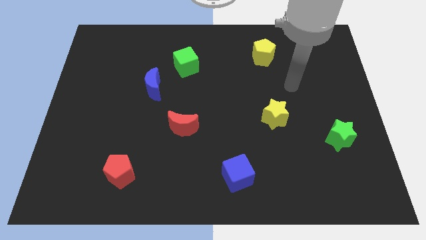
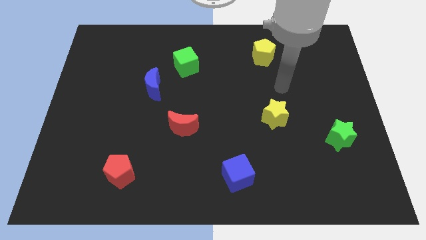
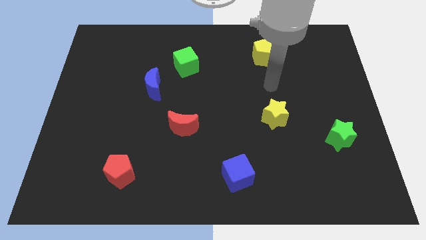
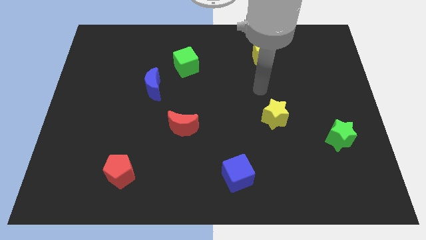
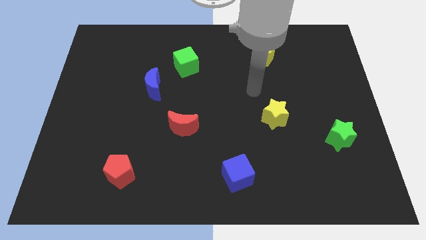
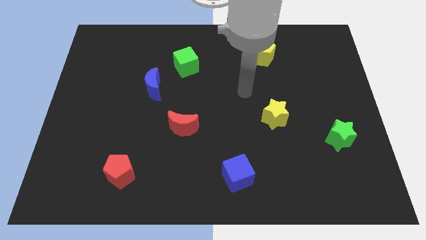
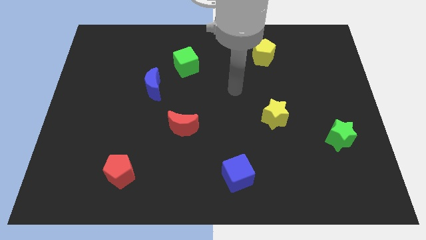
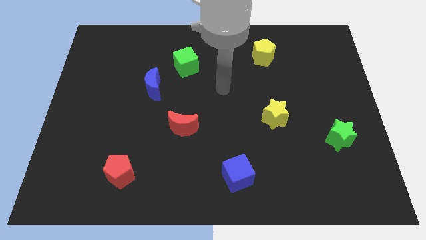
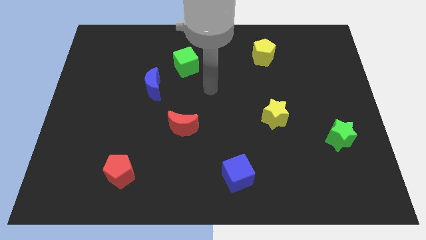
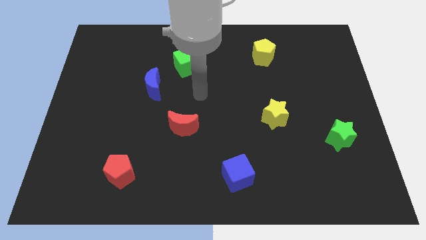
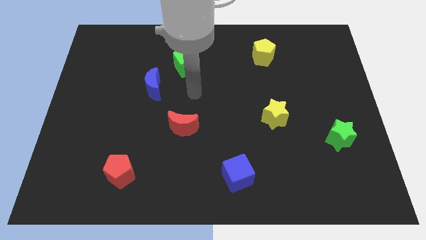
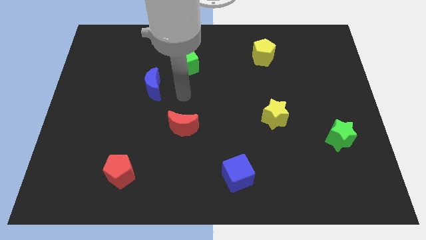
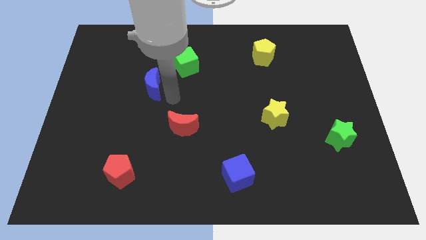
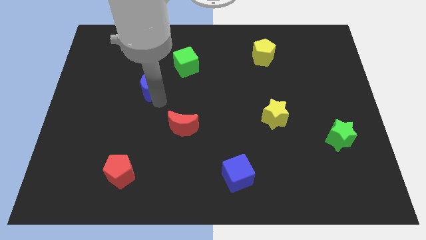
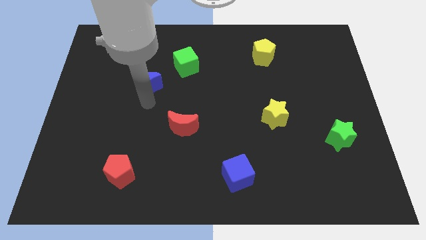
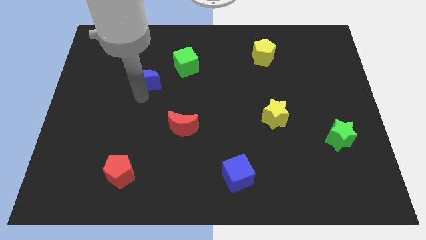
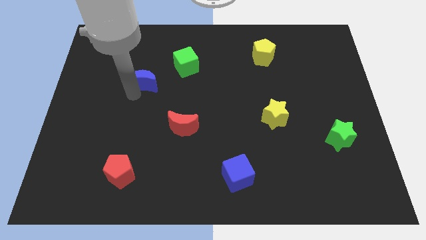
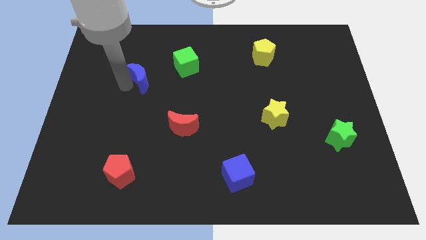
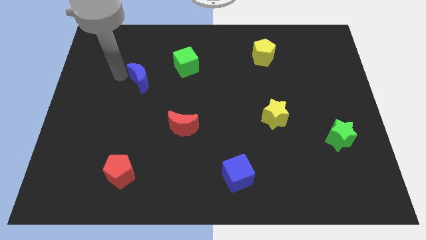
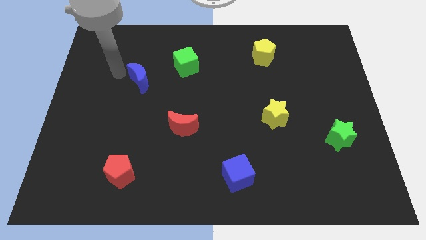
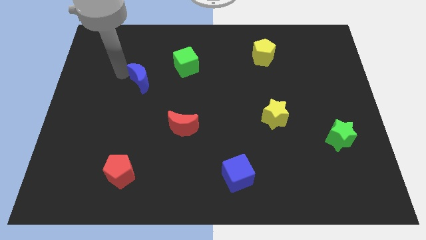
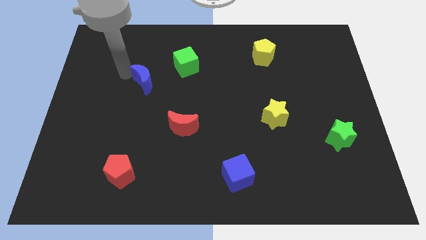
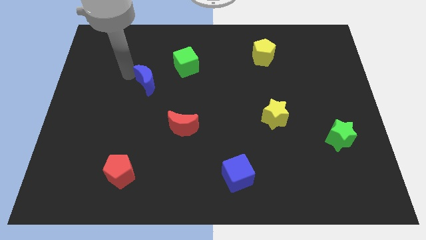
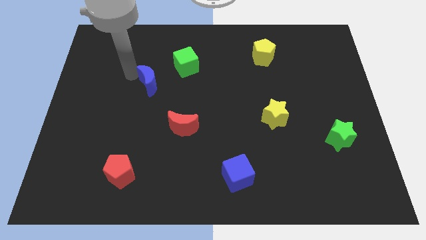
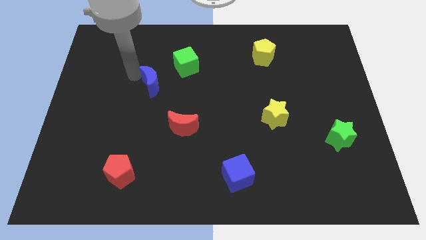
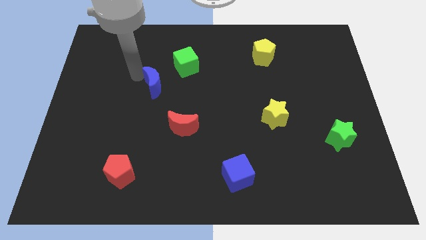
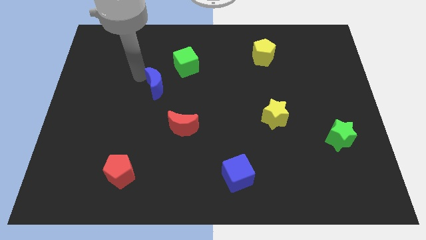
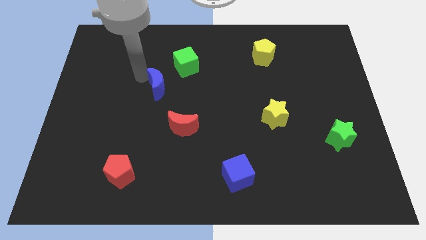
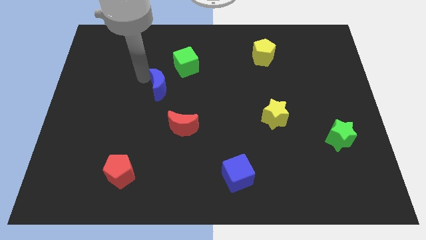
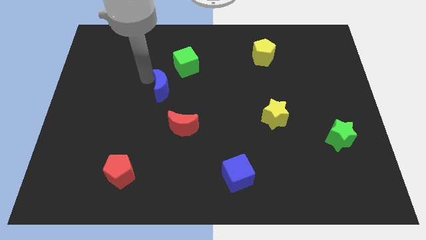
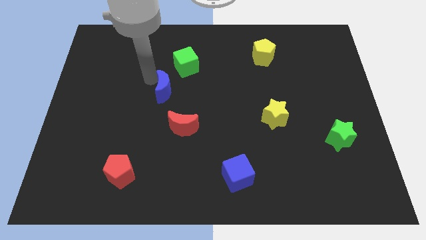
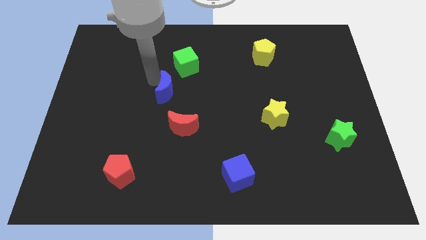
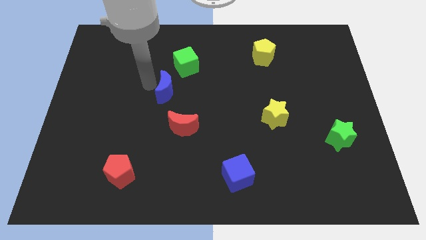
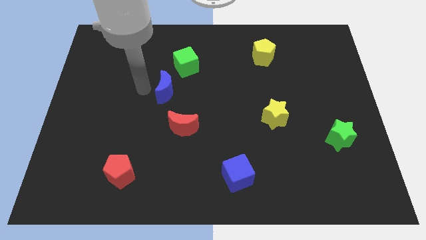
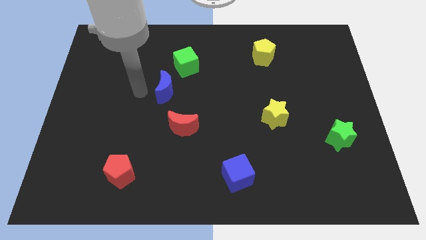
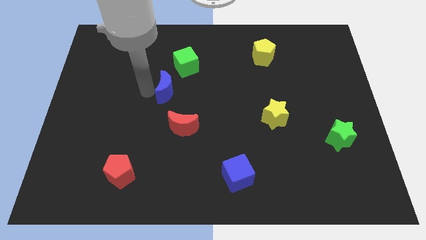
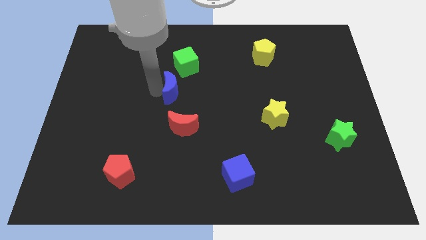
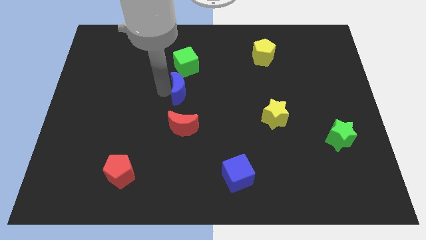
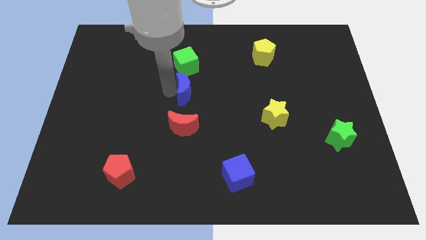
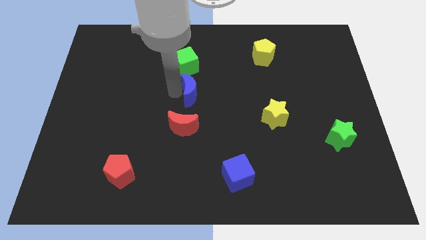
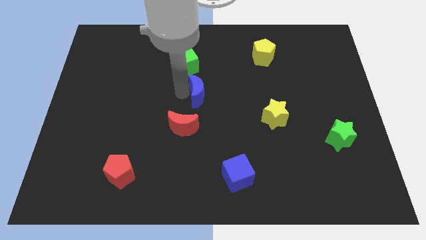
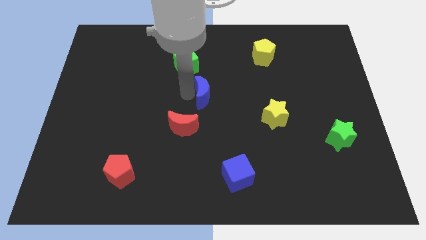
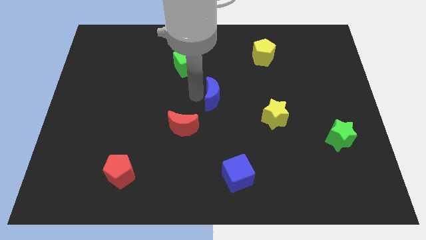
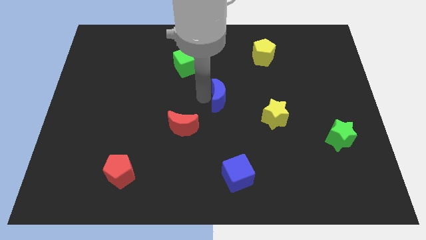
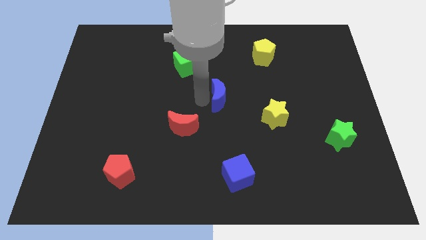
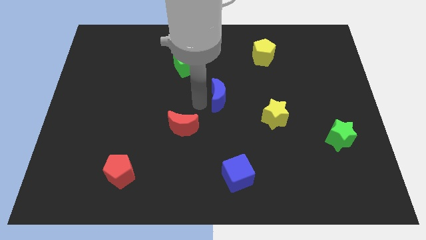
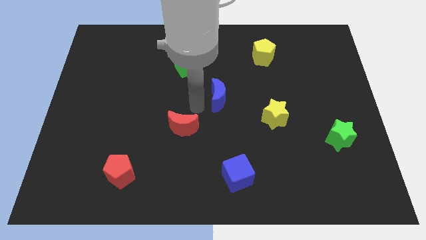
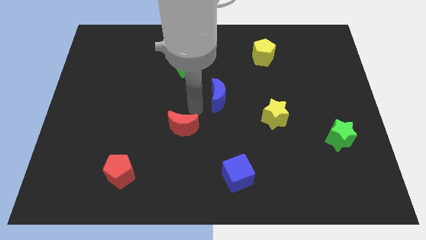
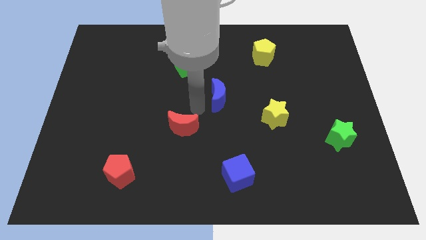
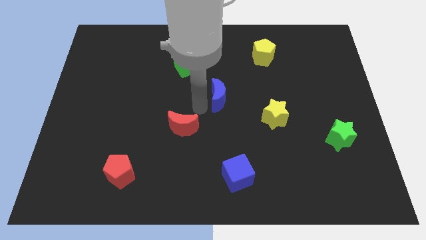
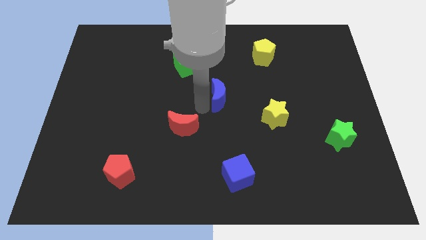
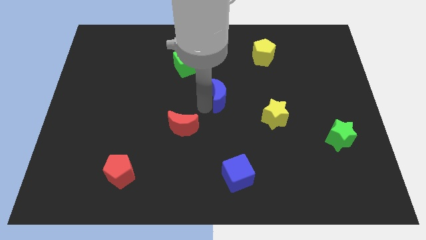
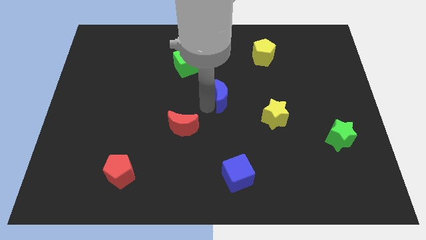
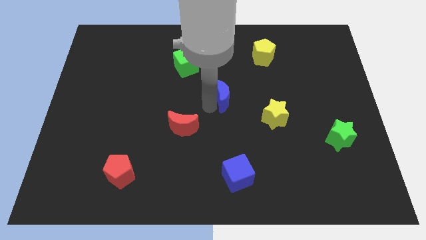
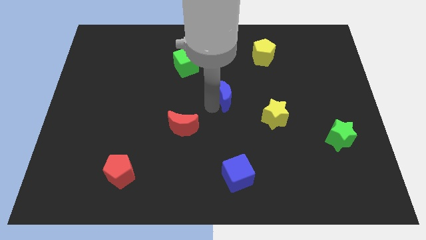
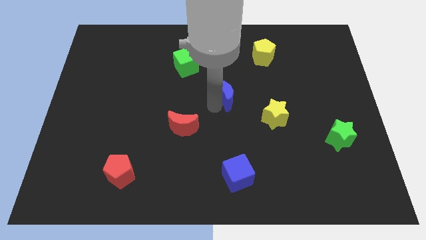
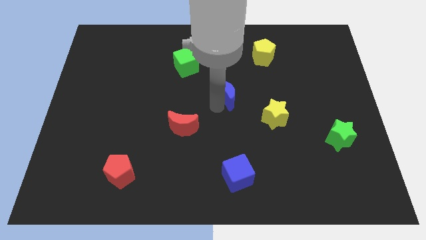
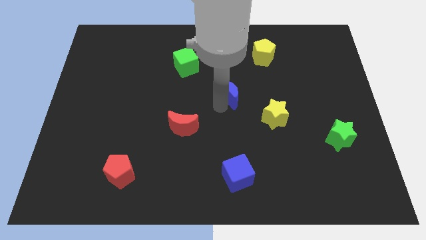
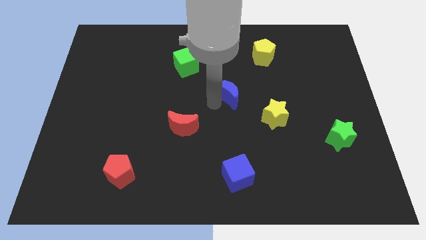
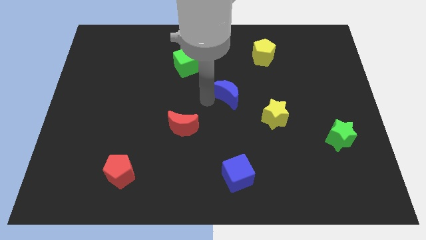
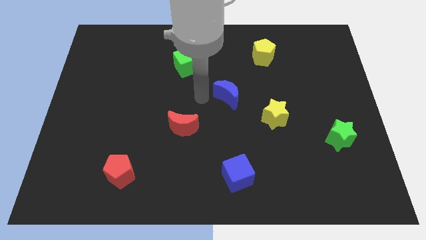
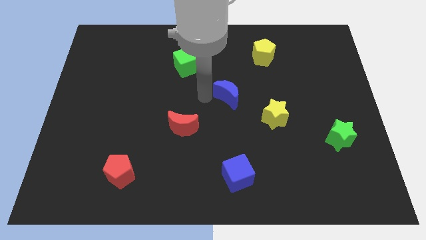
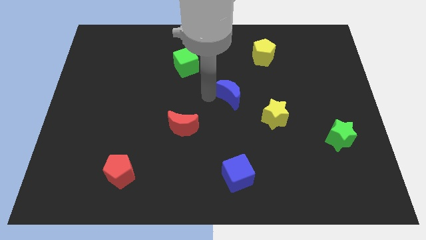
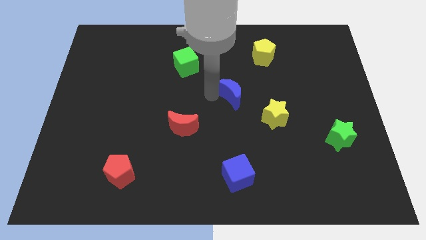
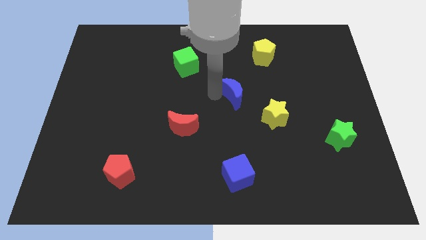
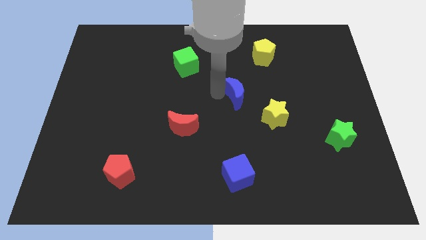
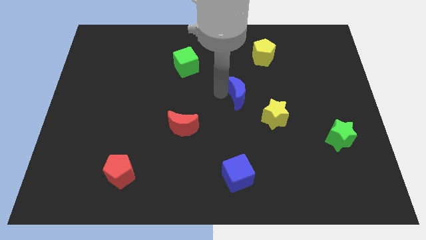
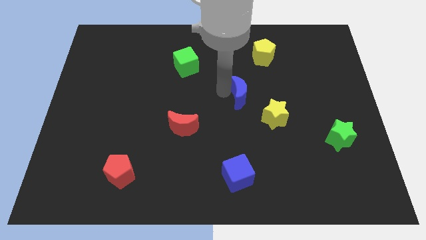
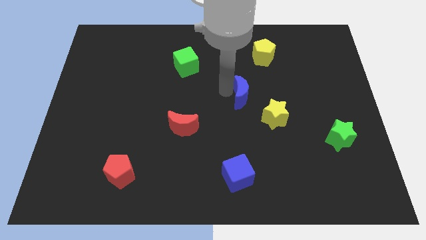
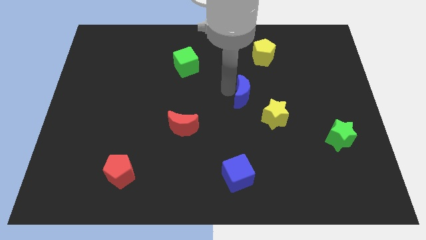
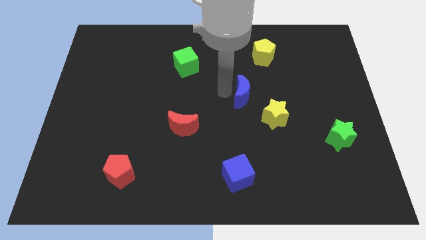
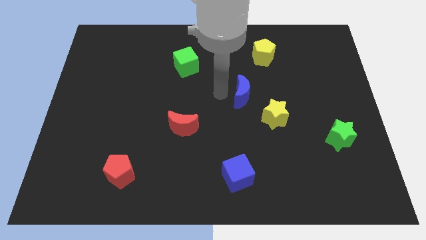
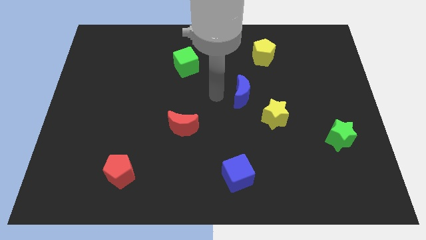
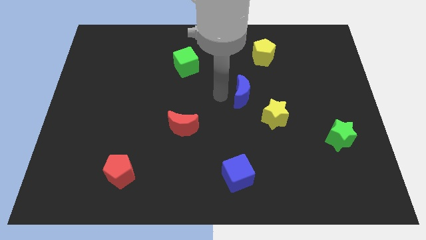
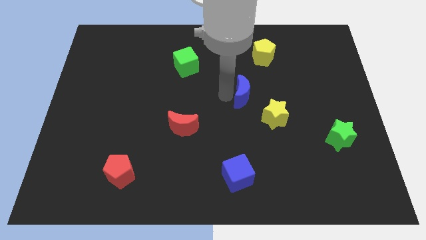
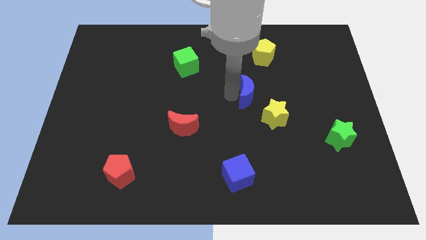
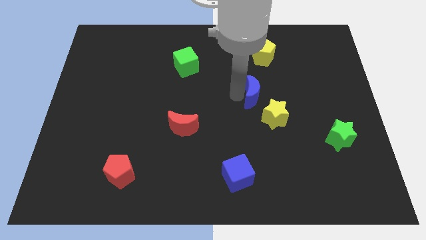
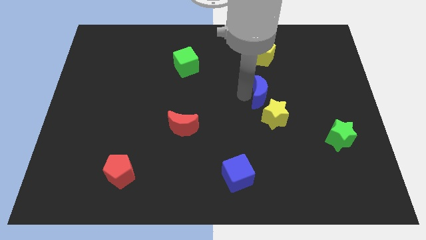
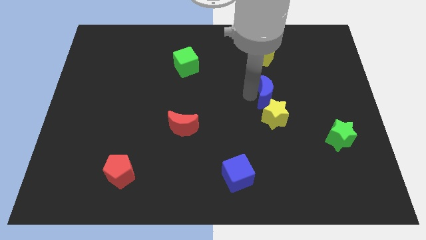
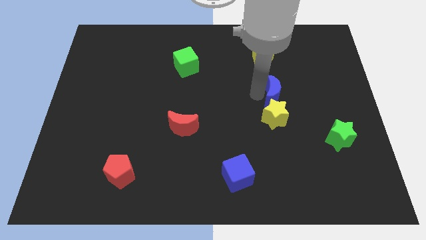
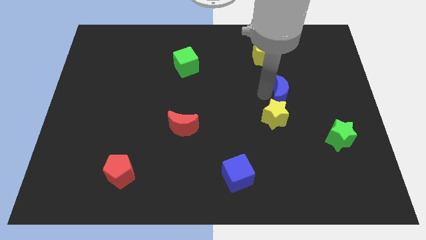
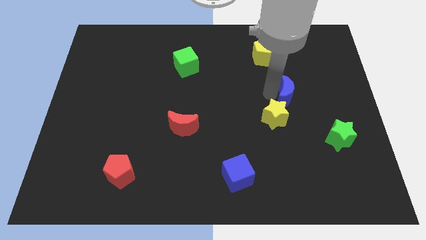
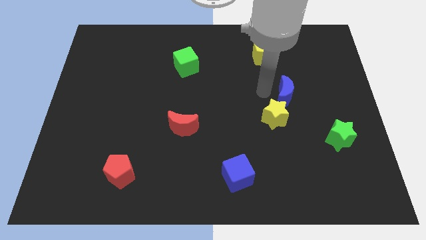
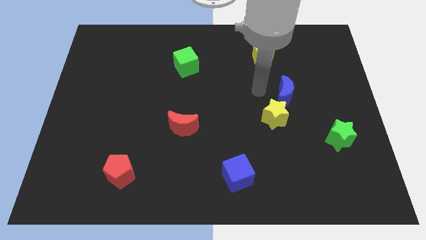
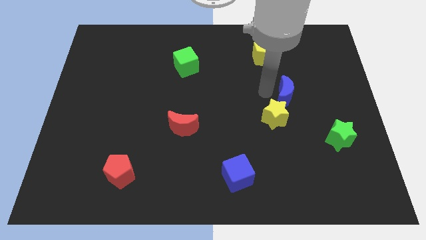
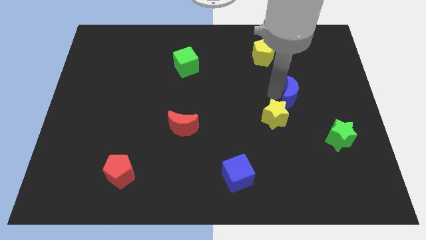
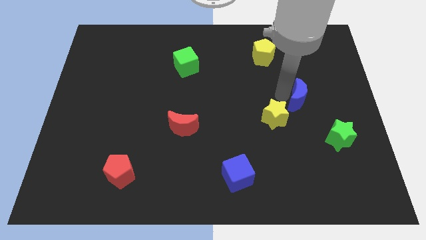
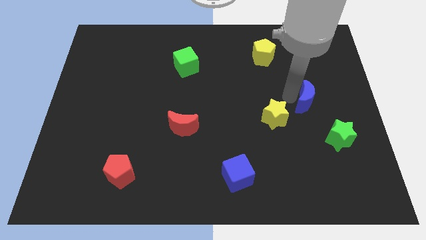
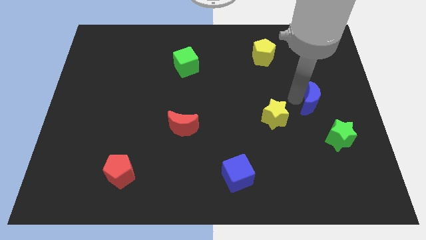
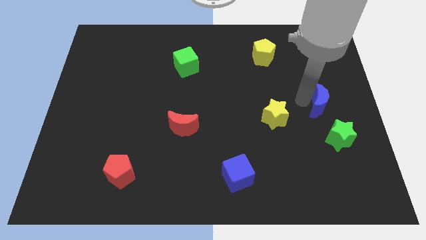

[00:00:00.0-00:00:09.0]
push the blue moon to the right side of the board
